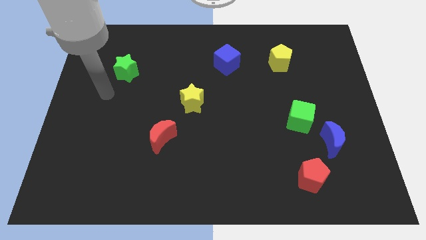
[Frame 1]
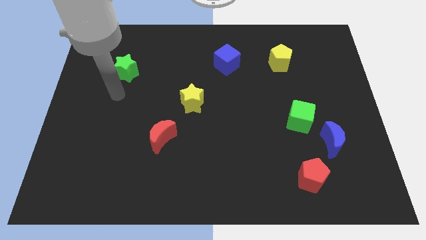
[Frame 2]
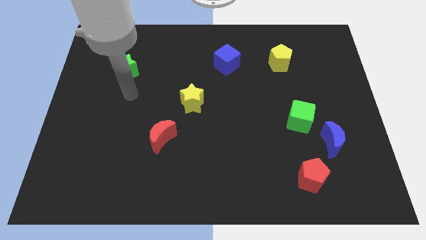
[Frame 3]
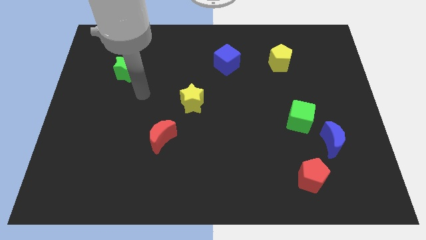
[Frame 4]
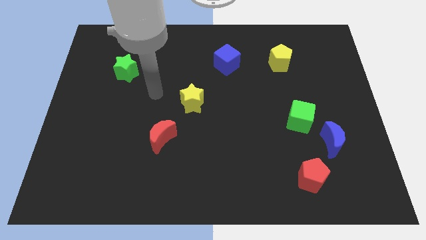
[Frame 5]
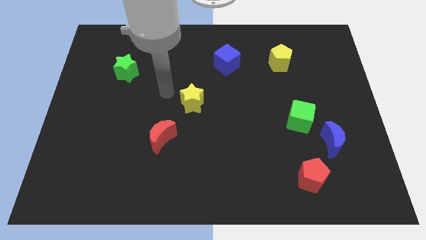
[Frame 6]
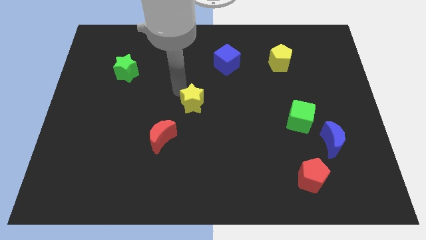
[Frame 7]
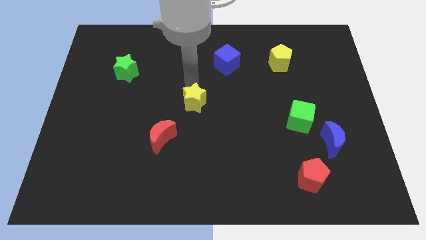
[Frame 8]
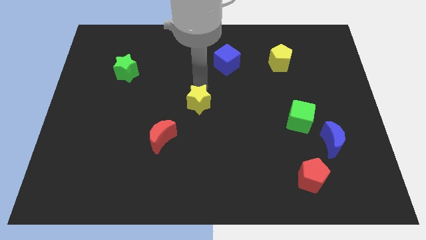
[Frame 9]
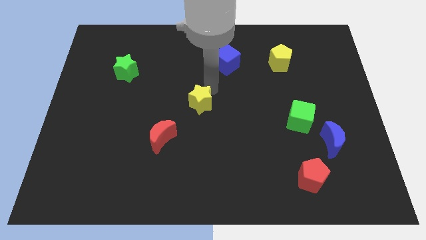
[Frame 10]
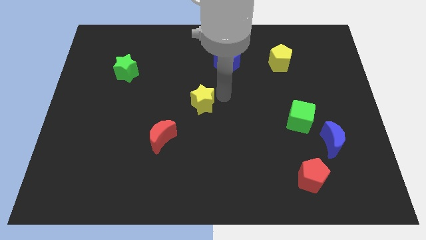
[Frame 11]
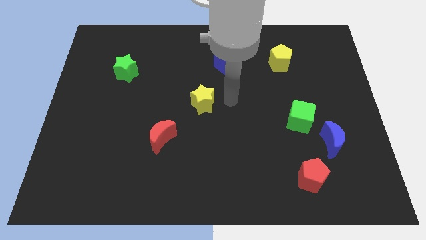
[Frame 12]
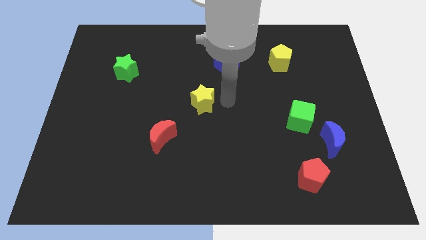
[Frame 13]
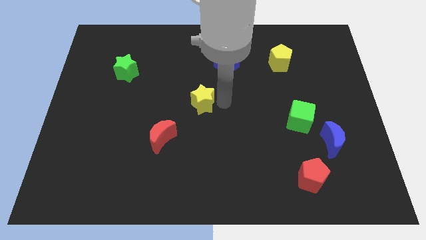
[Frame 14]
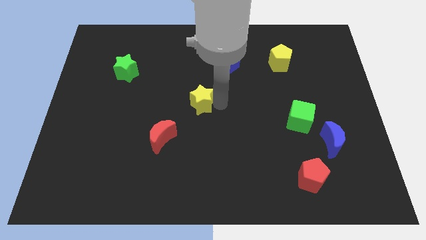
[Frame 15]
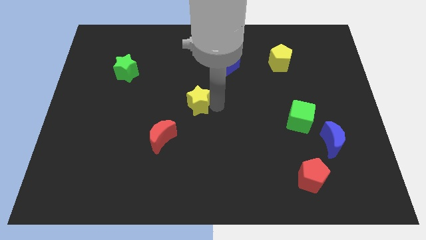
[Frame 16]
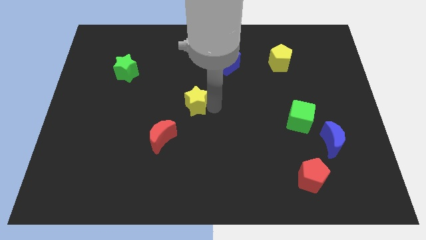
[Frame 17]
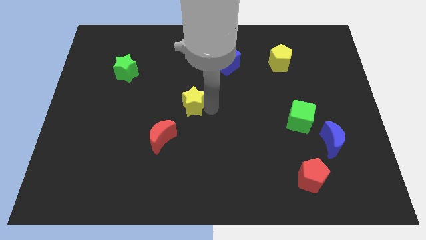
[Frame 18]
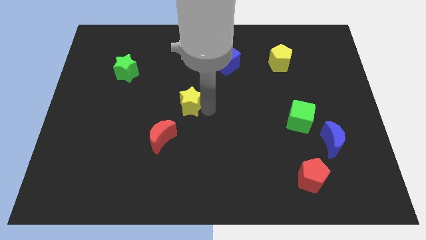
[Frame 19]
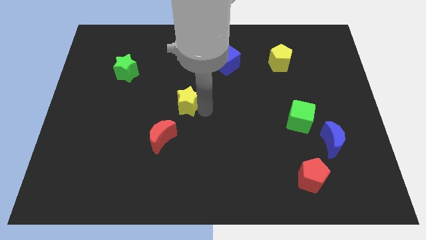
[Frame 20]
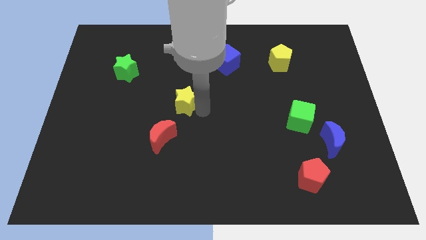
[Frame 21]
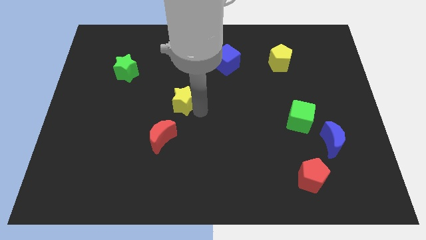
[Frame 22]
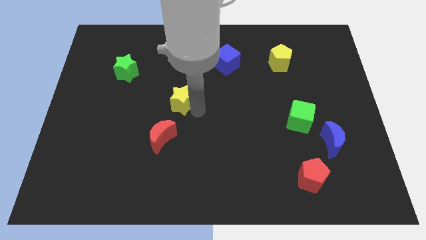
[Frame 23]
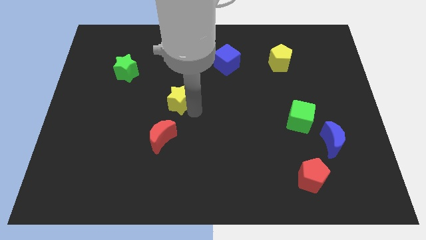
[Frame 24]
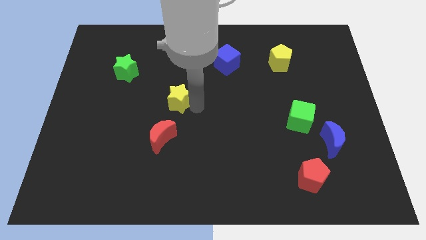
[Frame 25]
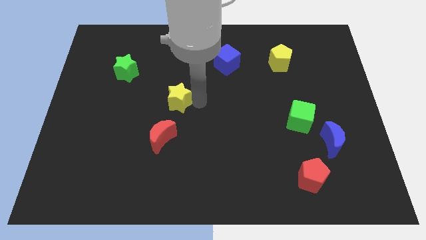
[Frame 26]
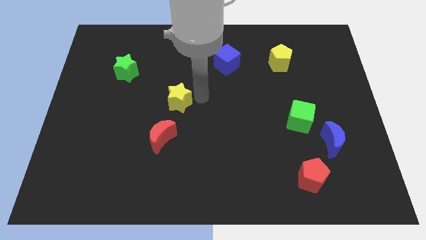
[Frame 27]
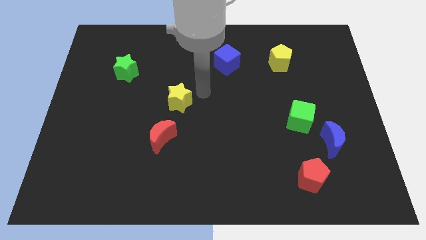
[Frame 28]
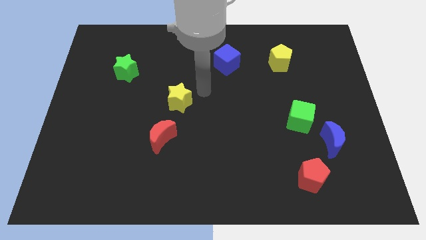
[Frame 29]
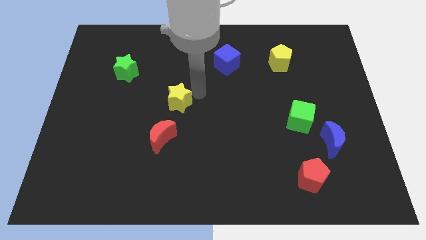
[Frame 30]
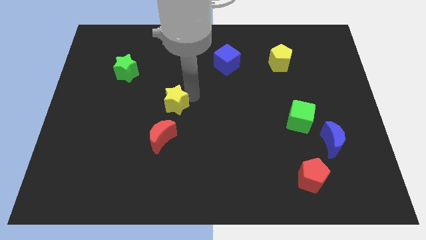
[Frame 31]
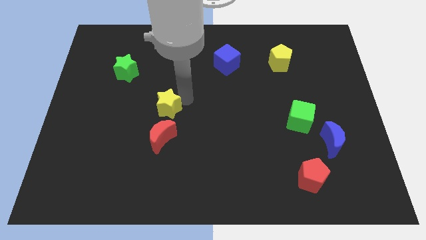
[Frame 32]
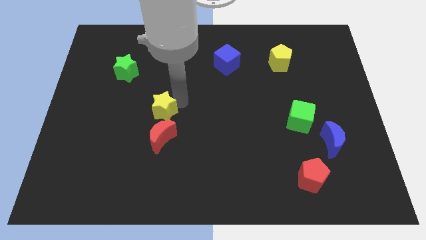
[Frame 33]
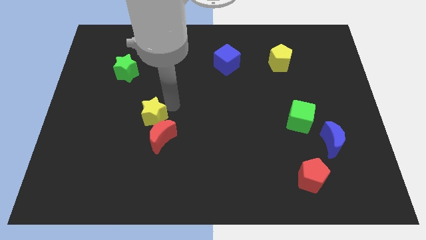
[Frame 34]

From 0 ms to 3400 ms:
move the yellow star downwards and to the left somewhat

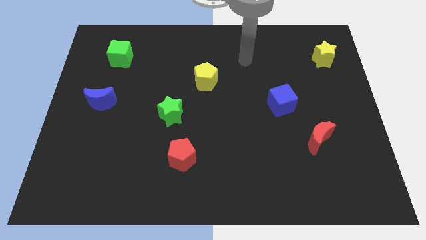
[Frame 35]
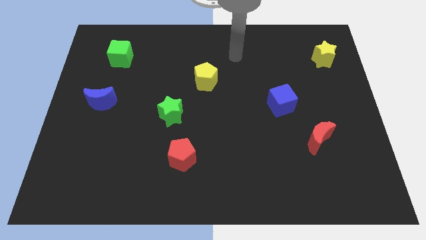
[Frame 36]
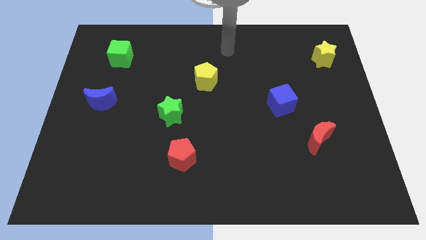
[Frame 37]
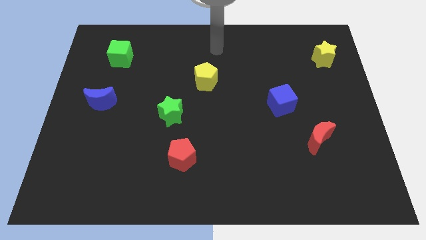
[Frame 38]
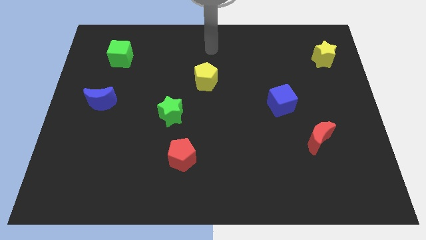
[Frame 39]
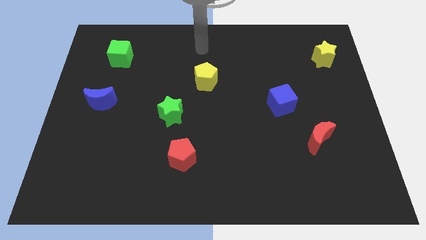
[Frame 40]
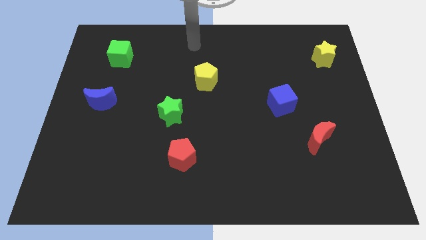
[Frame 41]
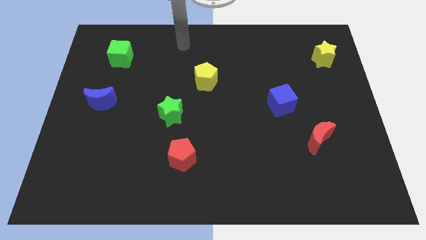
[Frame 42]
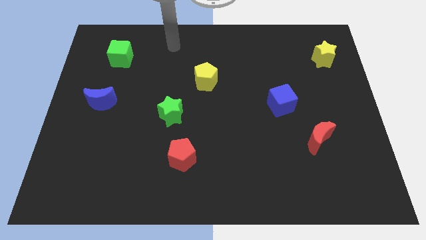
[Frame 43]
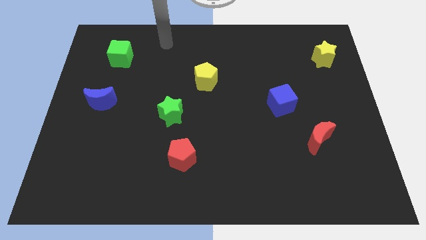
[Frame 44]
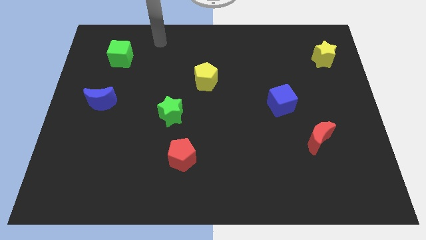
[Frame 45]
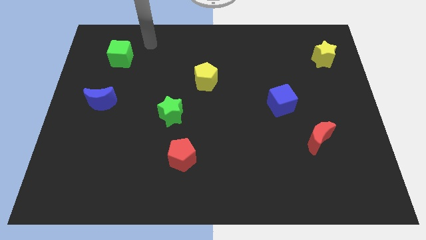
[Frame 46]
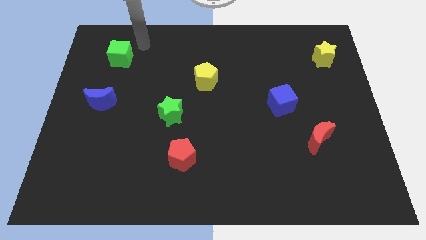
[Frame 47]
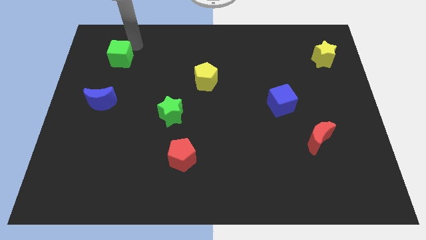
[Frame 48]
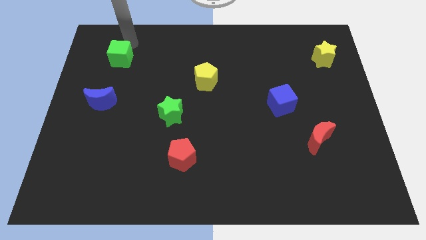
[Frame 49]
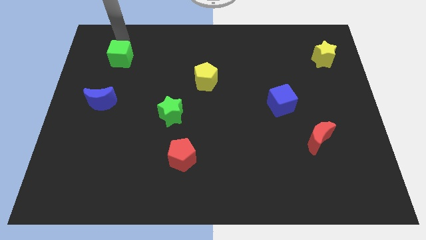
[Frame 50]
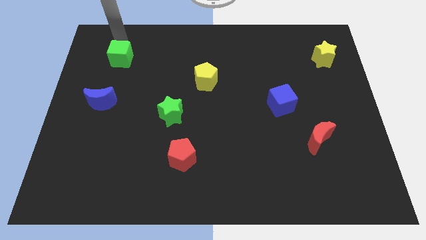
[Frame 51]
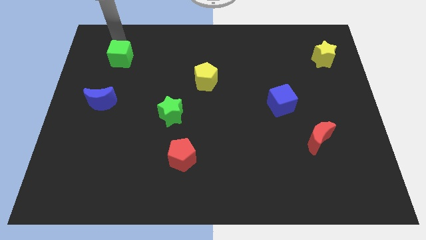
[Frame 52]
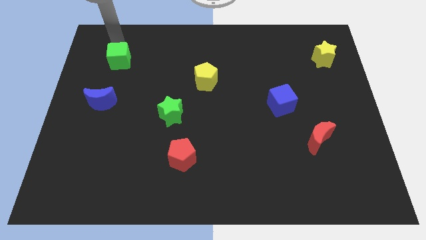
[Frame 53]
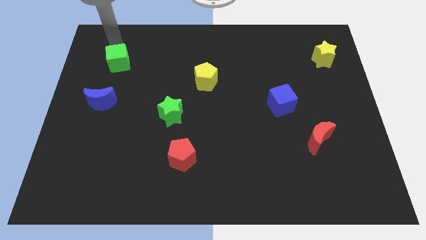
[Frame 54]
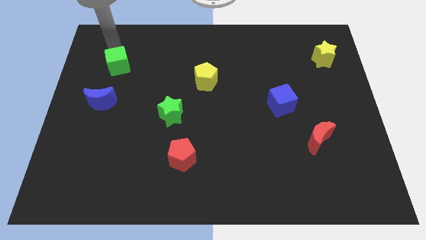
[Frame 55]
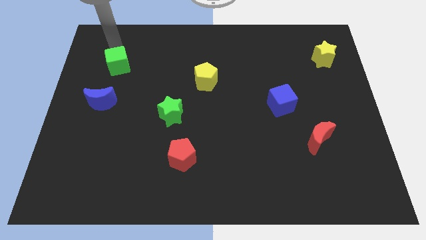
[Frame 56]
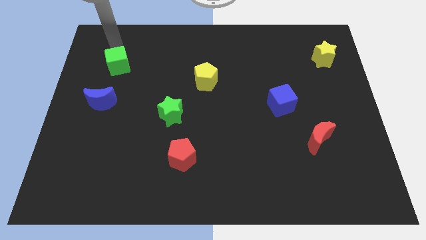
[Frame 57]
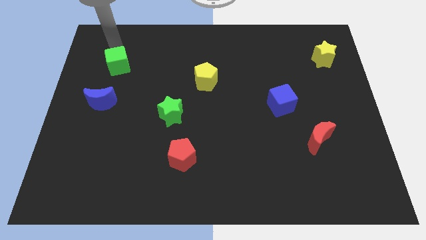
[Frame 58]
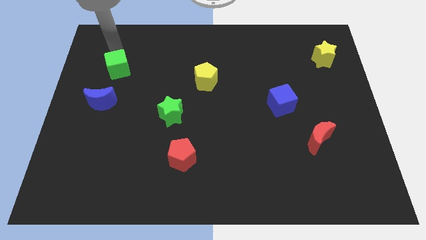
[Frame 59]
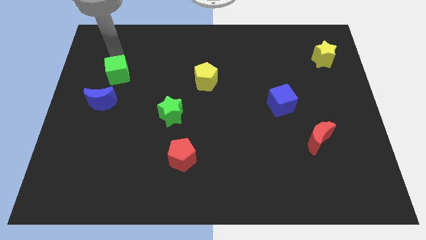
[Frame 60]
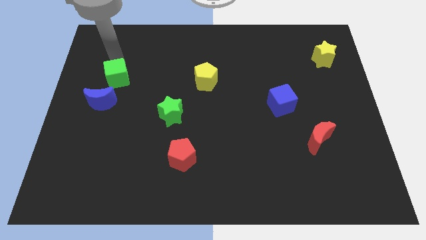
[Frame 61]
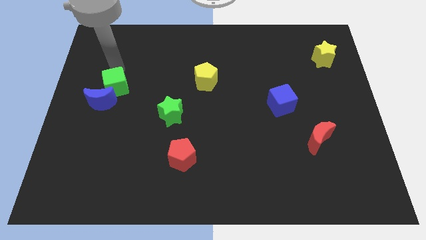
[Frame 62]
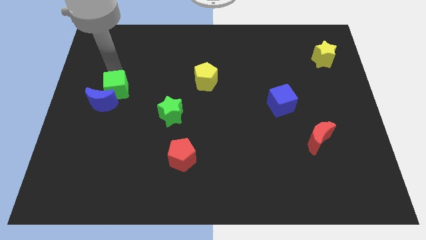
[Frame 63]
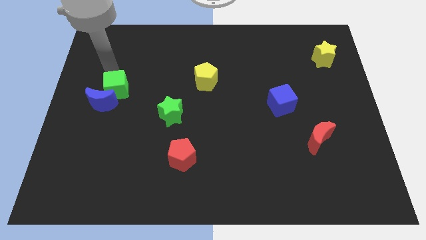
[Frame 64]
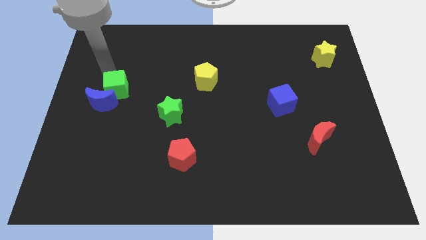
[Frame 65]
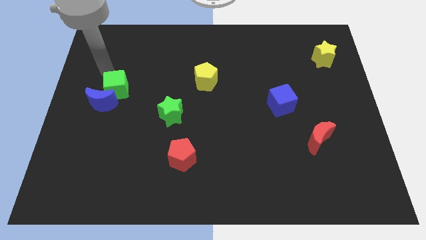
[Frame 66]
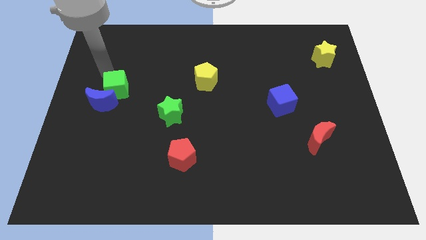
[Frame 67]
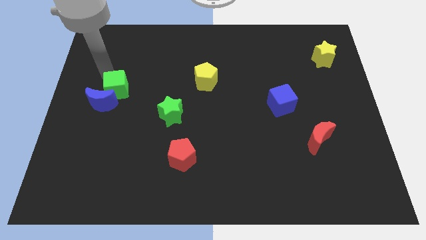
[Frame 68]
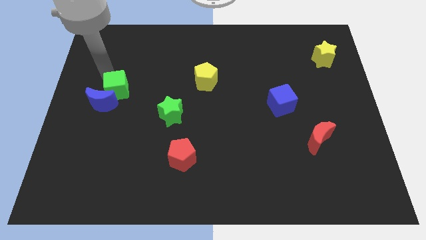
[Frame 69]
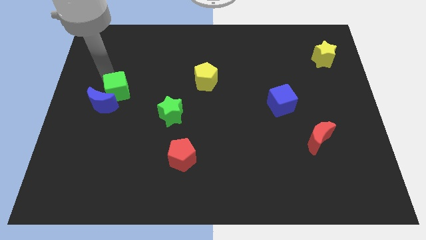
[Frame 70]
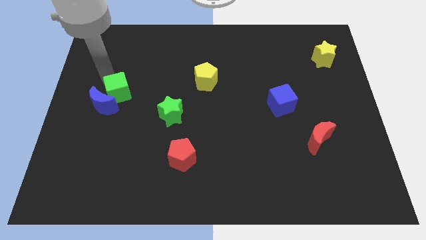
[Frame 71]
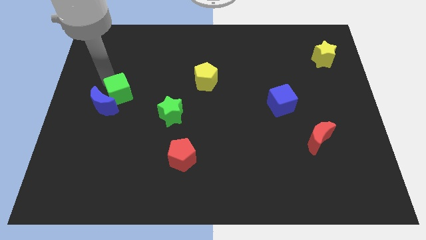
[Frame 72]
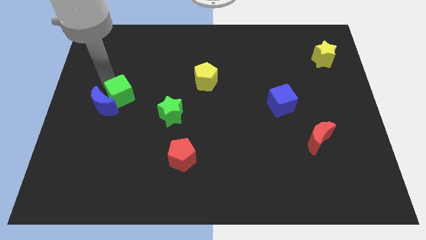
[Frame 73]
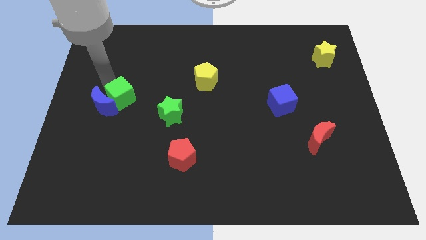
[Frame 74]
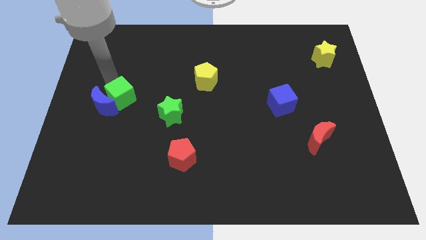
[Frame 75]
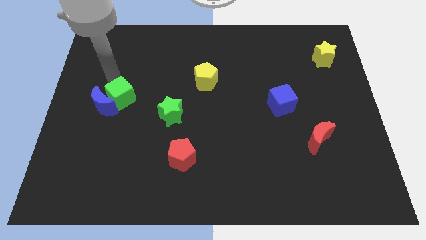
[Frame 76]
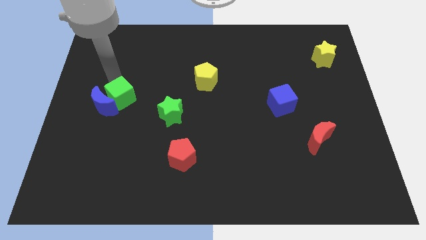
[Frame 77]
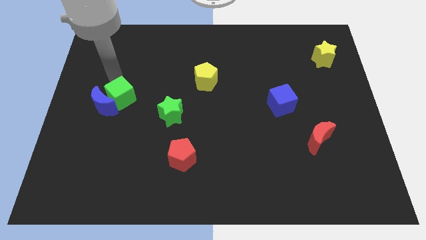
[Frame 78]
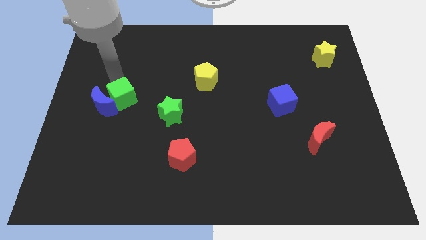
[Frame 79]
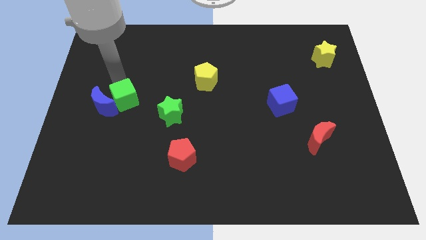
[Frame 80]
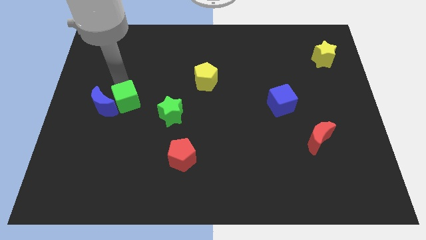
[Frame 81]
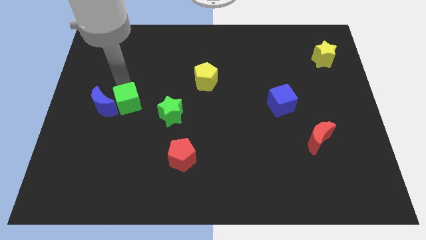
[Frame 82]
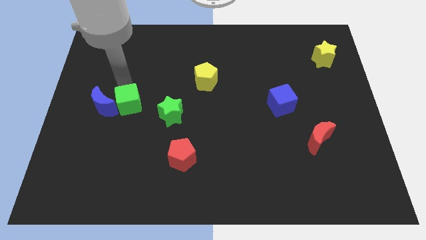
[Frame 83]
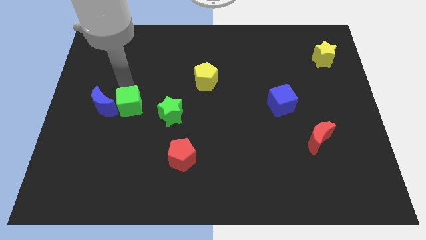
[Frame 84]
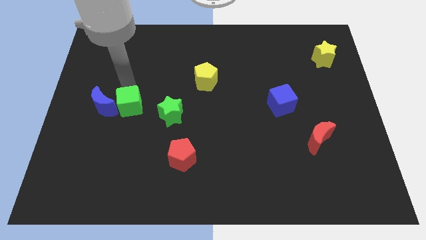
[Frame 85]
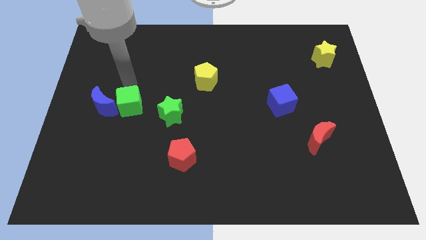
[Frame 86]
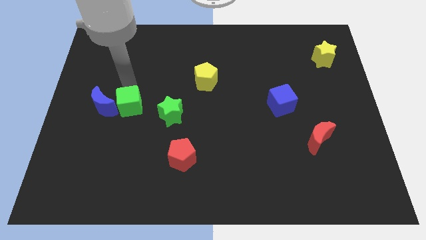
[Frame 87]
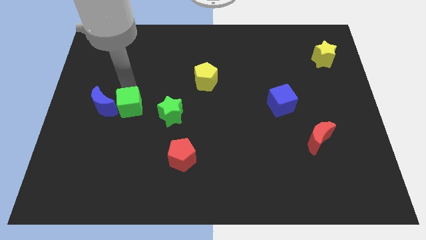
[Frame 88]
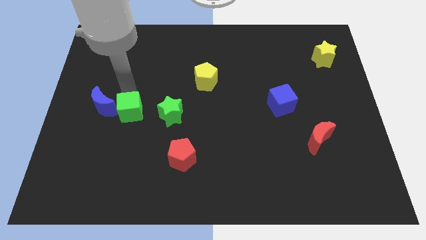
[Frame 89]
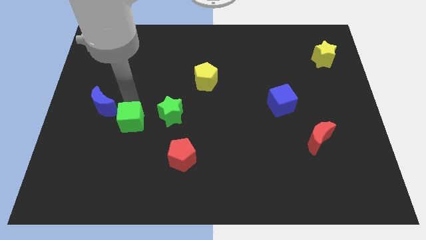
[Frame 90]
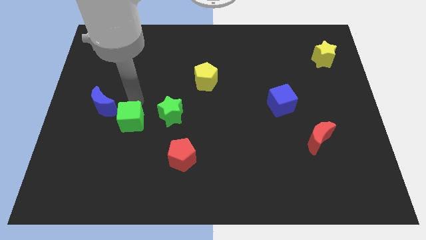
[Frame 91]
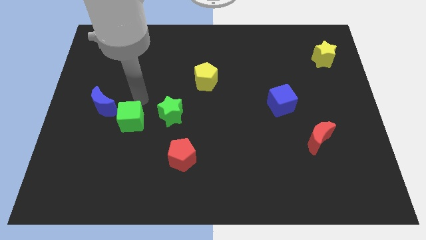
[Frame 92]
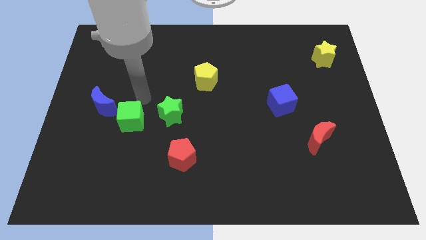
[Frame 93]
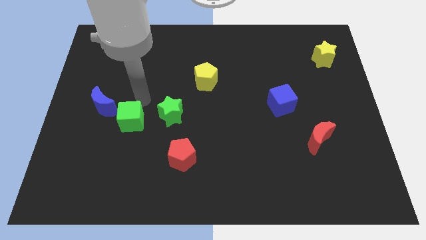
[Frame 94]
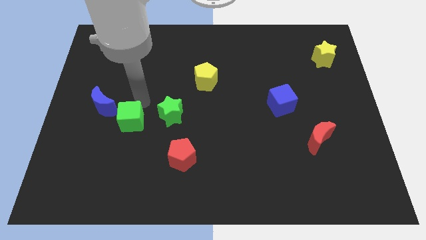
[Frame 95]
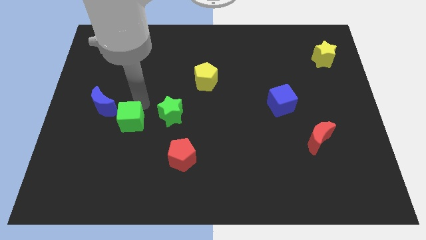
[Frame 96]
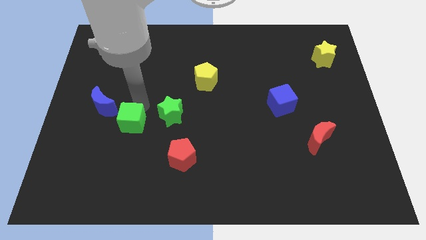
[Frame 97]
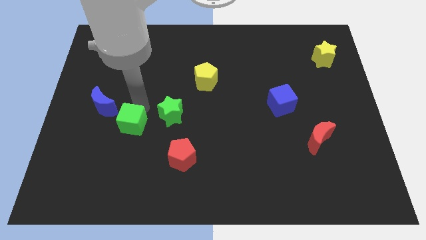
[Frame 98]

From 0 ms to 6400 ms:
push the green cube downwards
